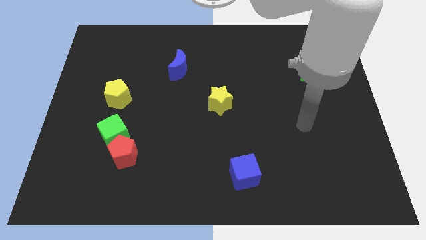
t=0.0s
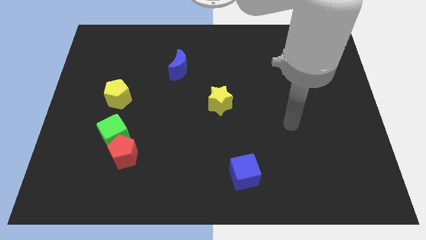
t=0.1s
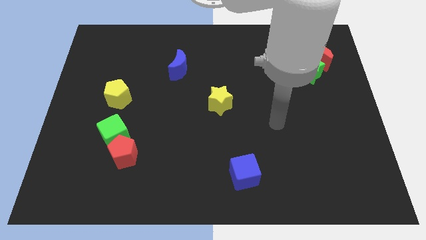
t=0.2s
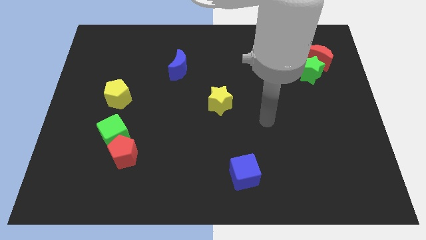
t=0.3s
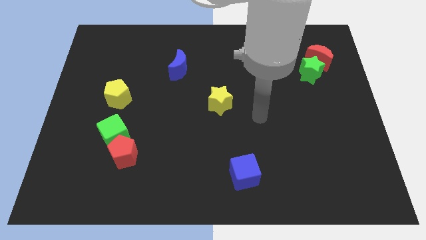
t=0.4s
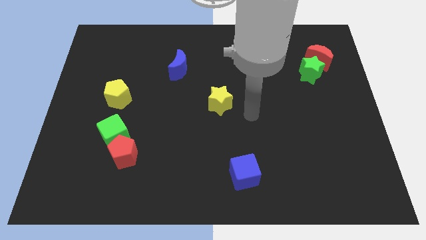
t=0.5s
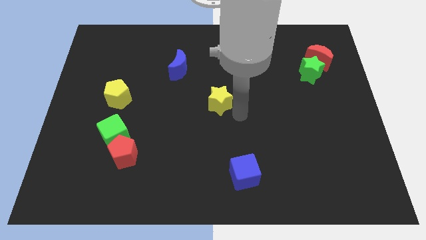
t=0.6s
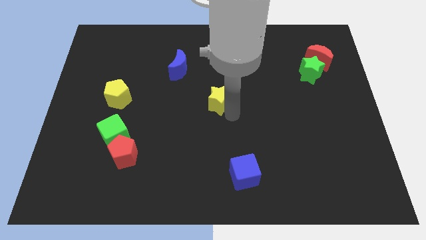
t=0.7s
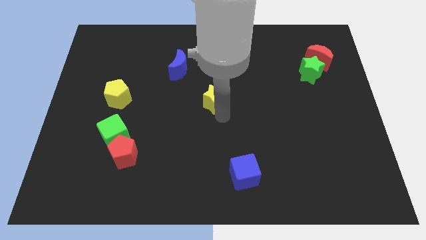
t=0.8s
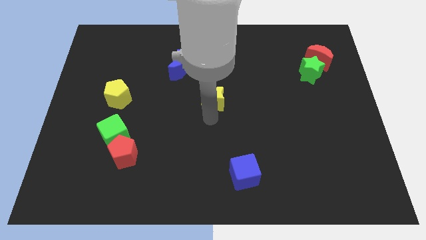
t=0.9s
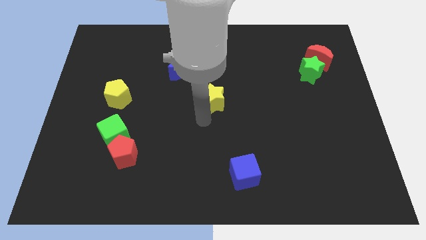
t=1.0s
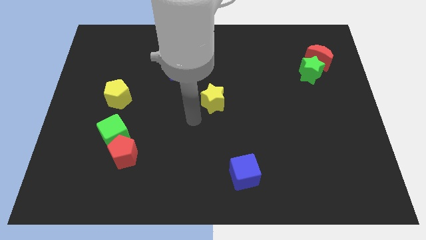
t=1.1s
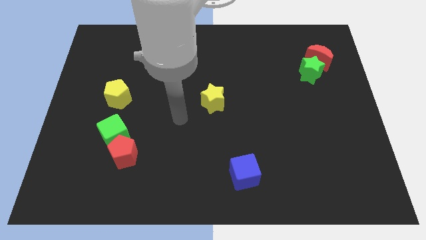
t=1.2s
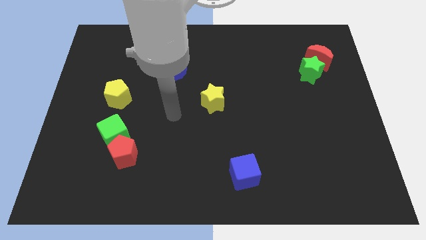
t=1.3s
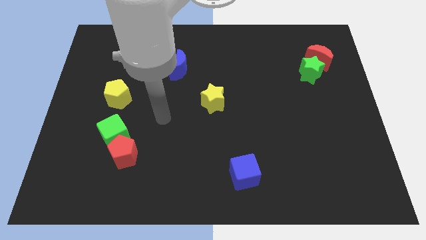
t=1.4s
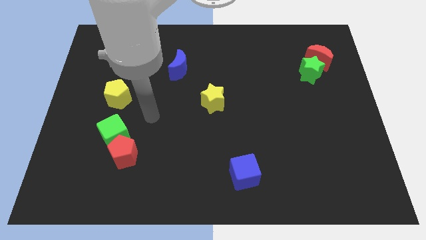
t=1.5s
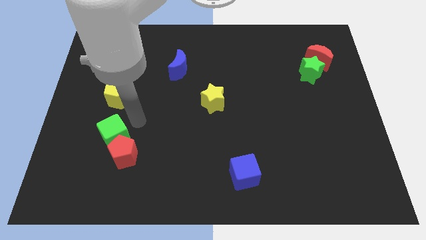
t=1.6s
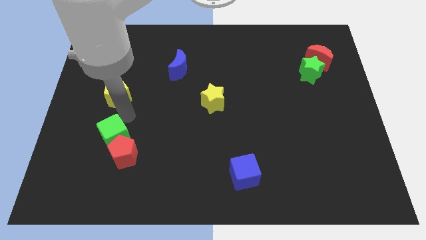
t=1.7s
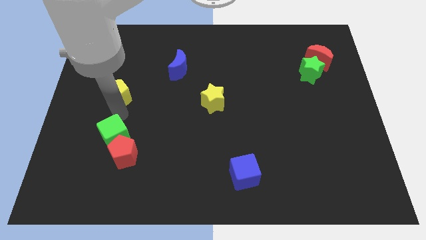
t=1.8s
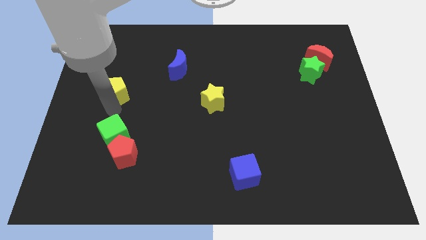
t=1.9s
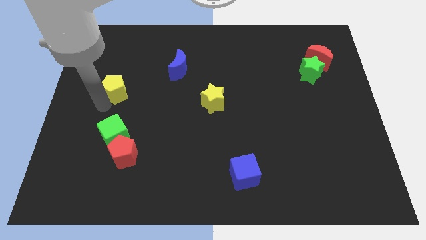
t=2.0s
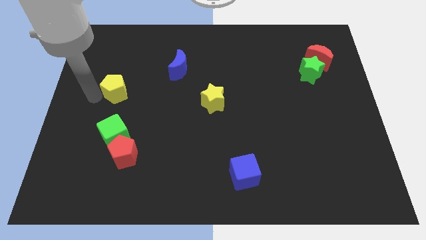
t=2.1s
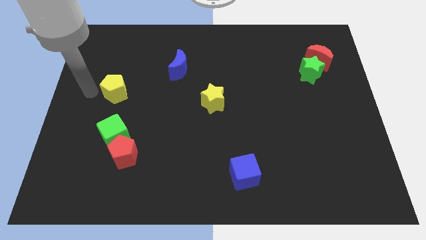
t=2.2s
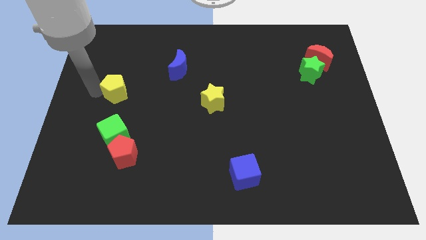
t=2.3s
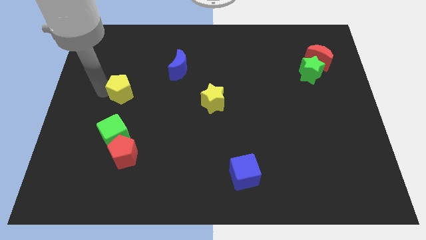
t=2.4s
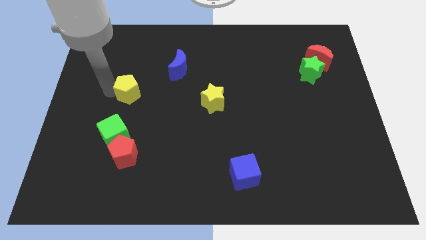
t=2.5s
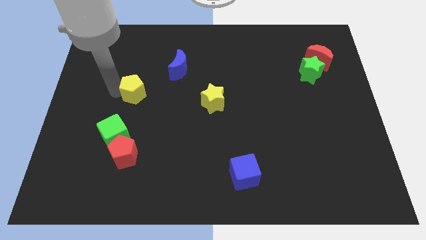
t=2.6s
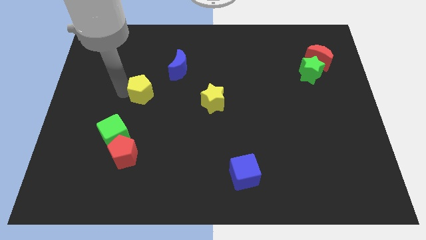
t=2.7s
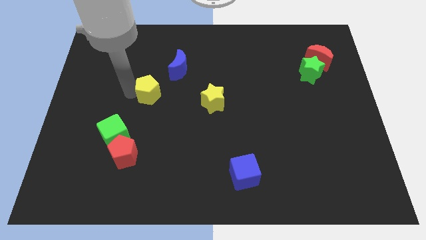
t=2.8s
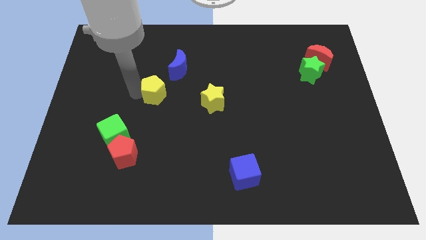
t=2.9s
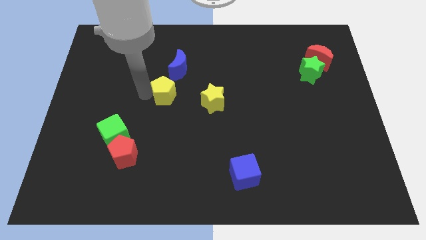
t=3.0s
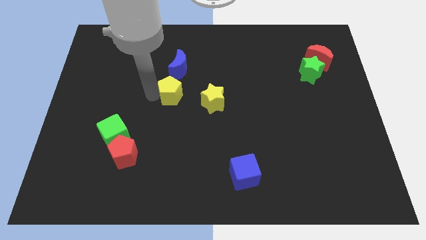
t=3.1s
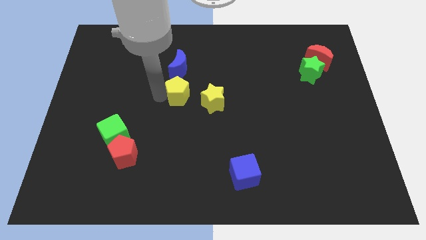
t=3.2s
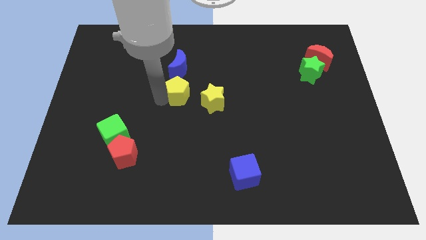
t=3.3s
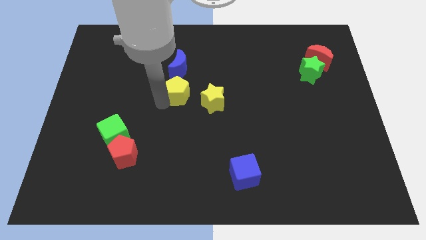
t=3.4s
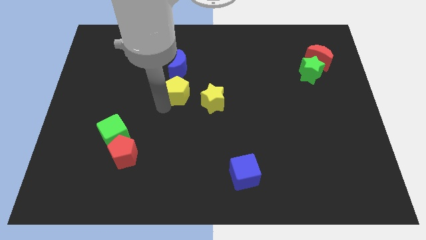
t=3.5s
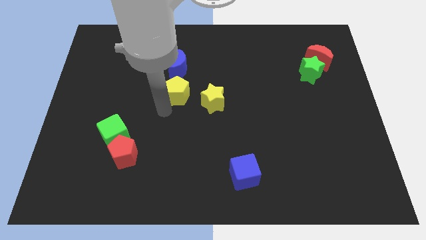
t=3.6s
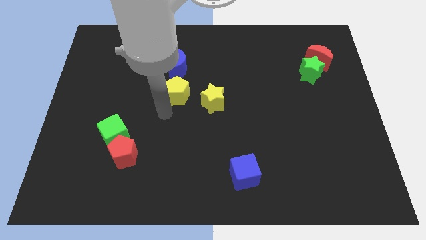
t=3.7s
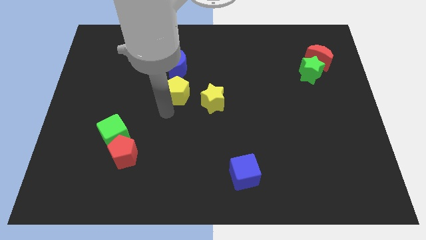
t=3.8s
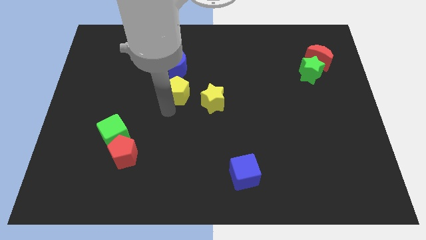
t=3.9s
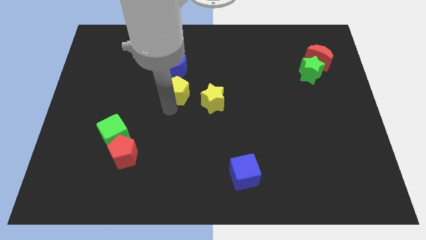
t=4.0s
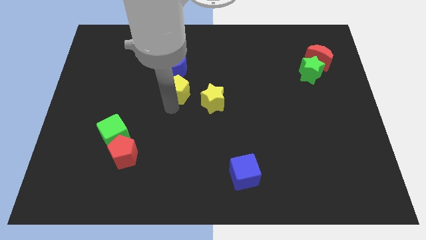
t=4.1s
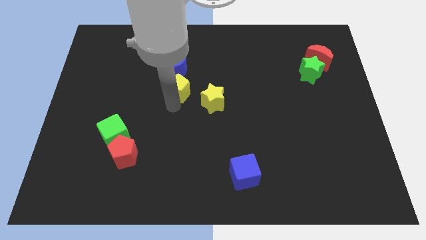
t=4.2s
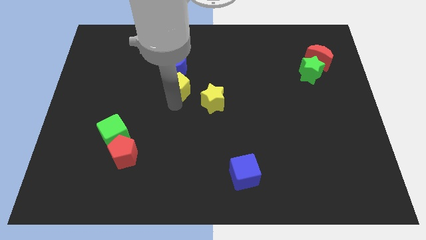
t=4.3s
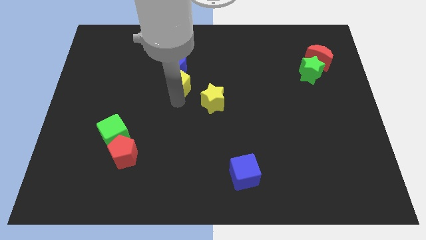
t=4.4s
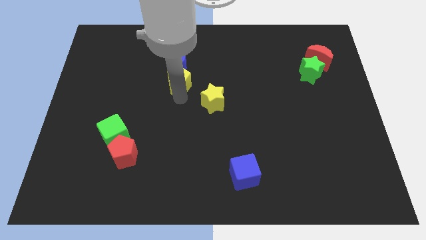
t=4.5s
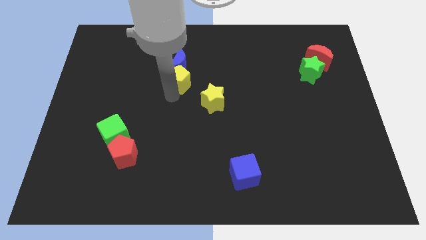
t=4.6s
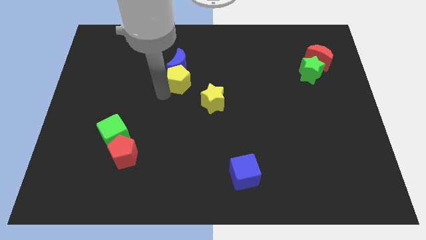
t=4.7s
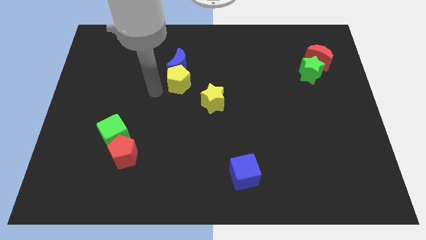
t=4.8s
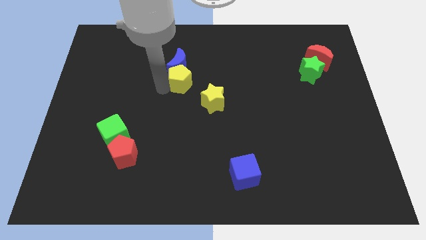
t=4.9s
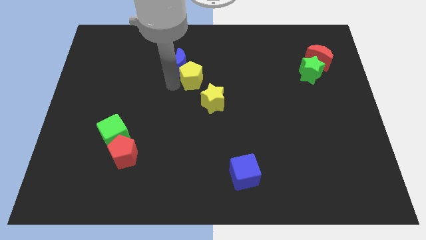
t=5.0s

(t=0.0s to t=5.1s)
push the yellow pentagon just right of the blue moon

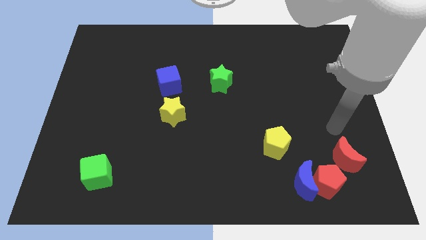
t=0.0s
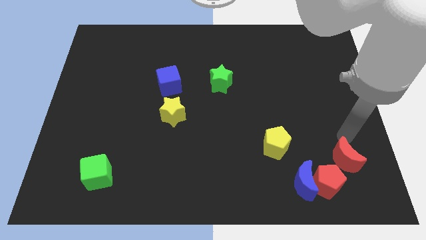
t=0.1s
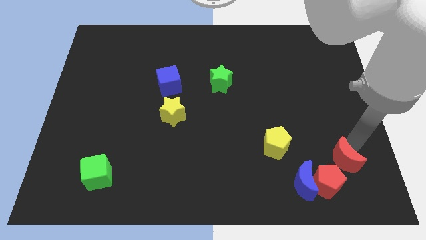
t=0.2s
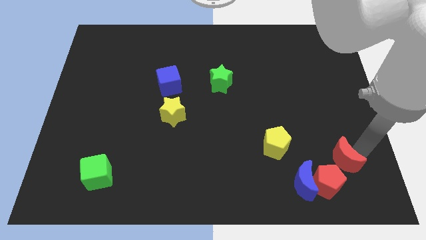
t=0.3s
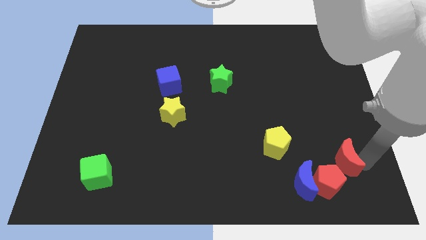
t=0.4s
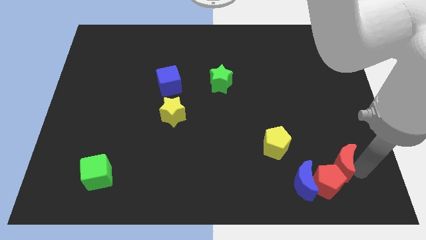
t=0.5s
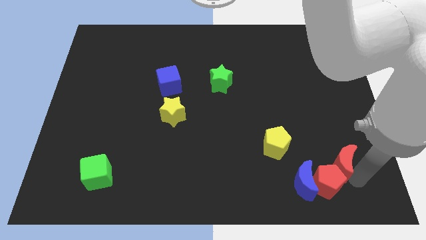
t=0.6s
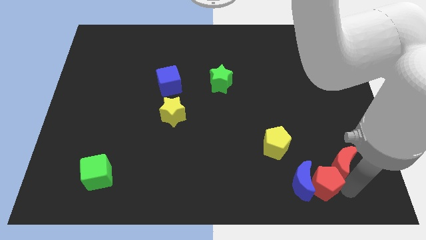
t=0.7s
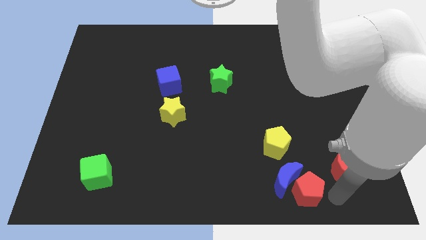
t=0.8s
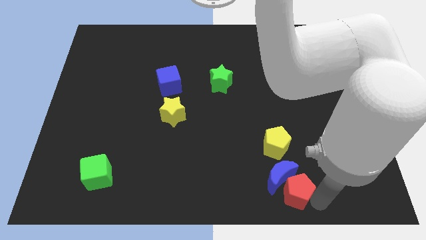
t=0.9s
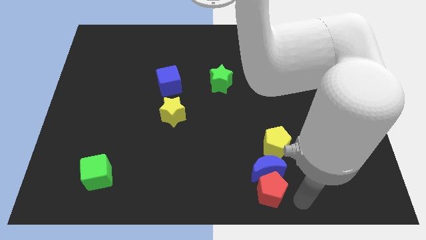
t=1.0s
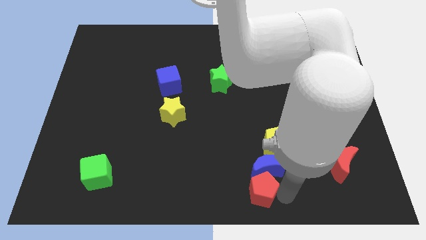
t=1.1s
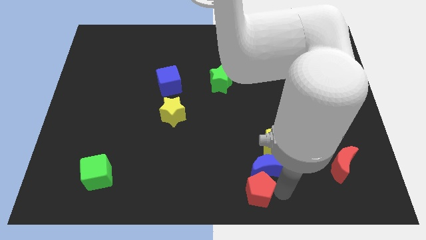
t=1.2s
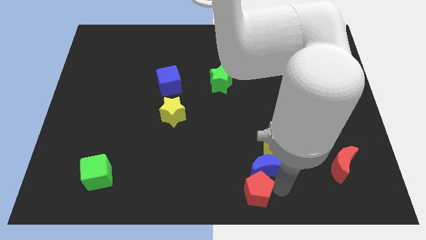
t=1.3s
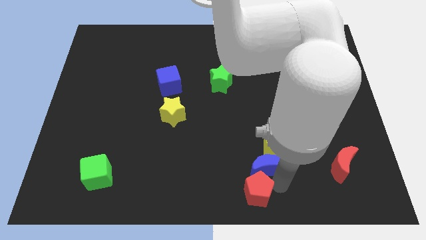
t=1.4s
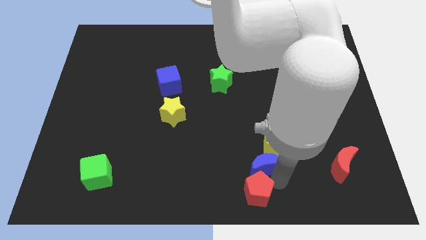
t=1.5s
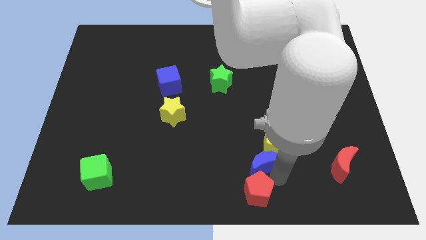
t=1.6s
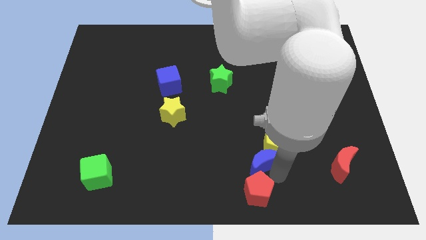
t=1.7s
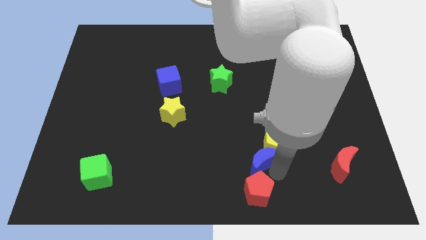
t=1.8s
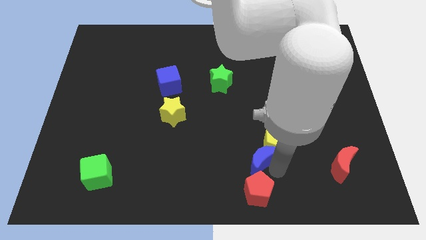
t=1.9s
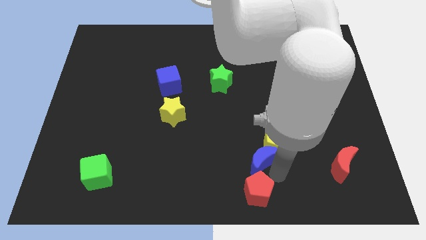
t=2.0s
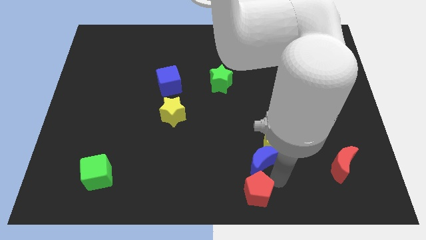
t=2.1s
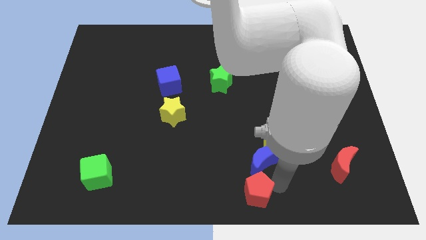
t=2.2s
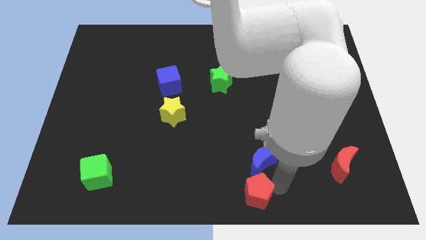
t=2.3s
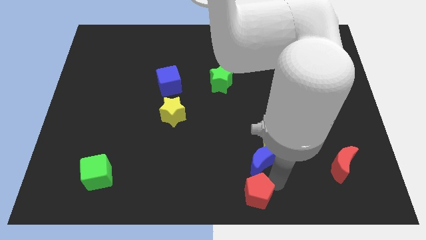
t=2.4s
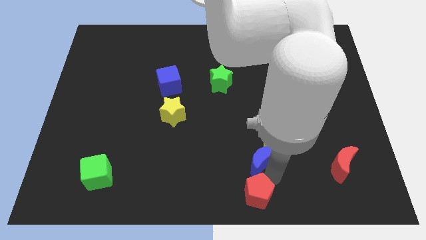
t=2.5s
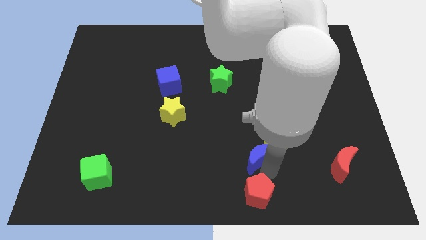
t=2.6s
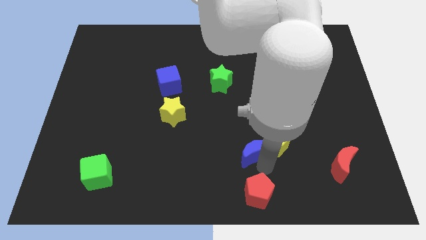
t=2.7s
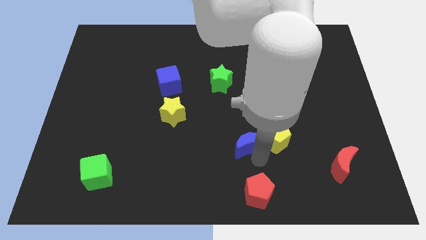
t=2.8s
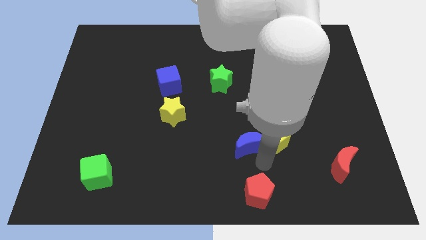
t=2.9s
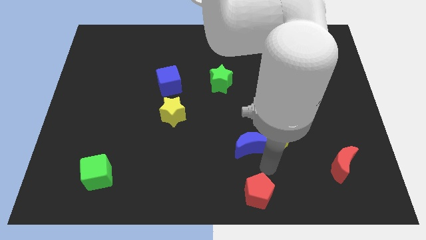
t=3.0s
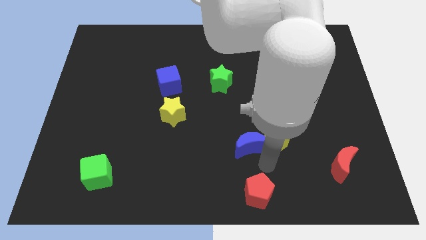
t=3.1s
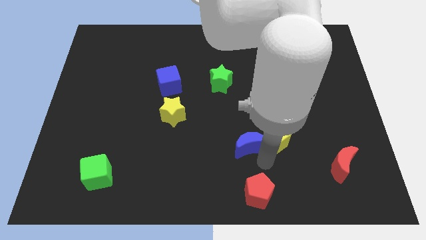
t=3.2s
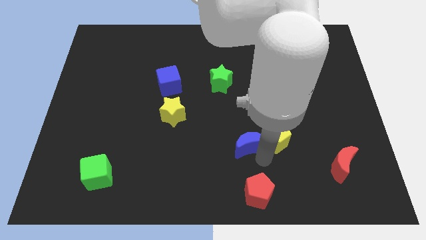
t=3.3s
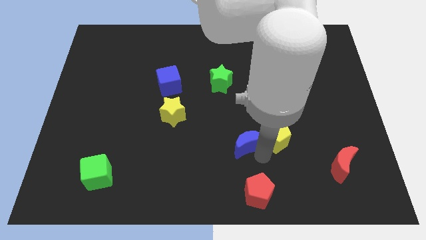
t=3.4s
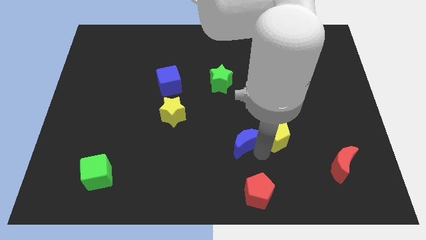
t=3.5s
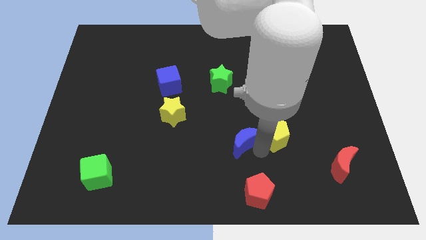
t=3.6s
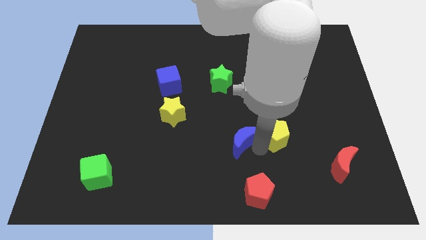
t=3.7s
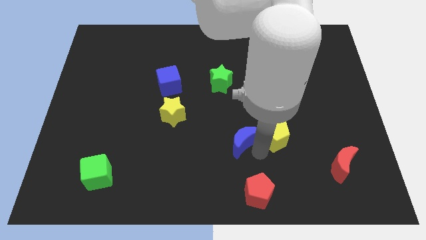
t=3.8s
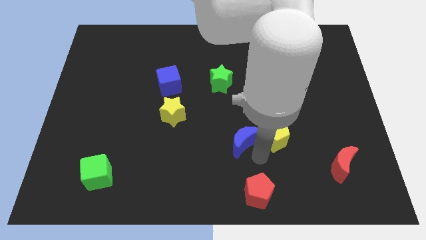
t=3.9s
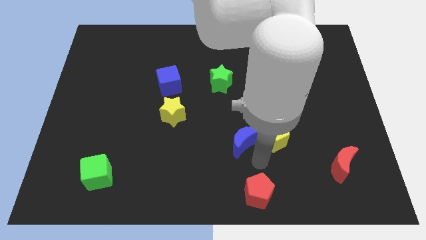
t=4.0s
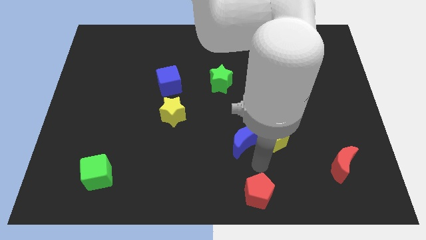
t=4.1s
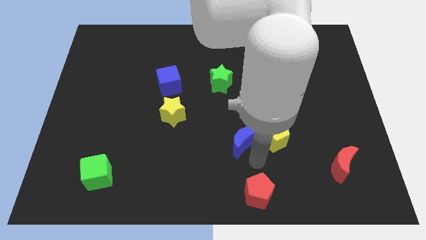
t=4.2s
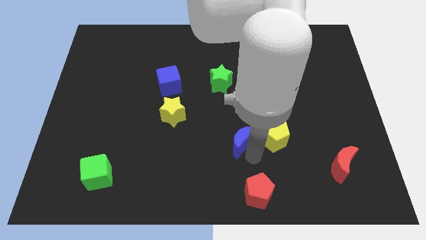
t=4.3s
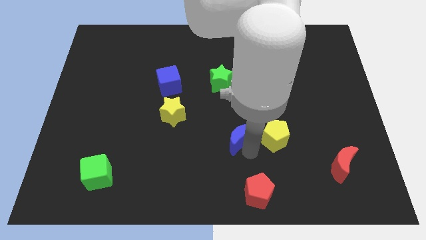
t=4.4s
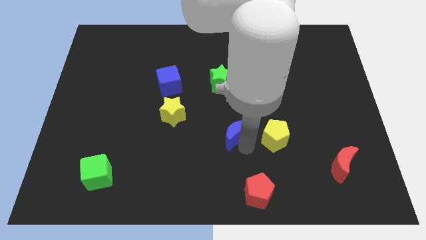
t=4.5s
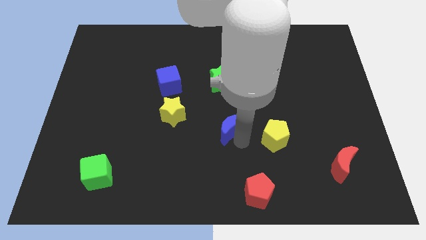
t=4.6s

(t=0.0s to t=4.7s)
put the blue moon to the bottom of the green star
